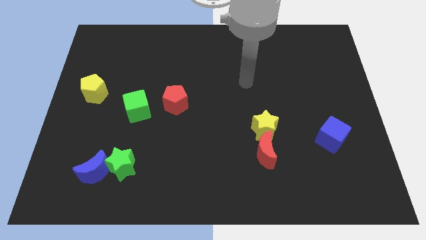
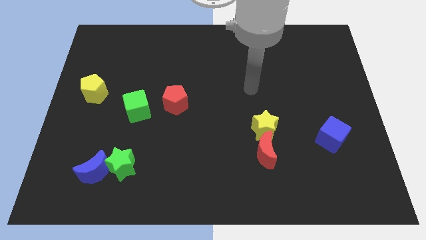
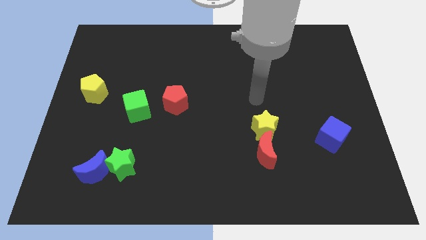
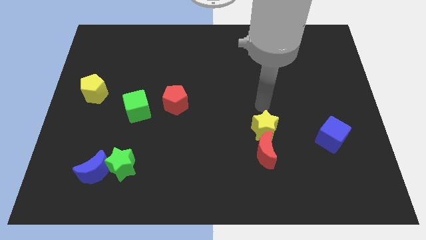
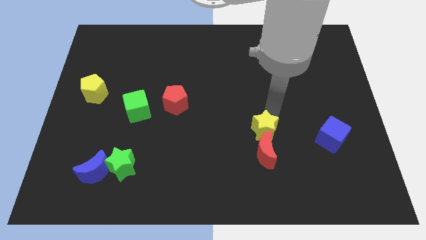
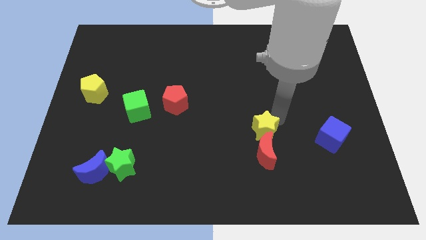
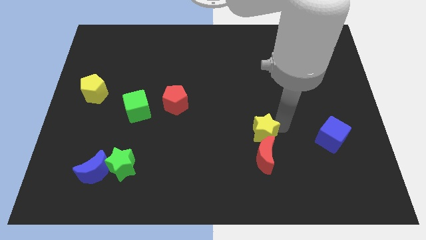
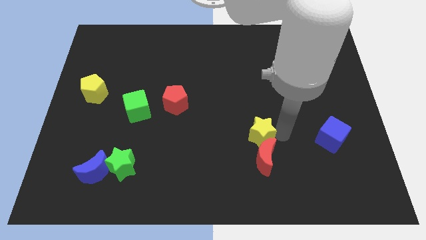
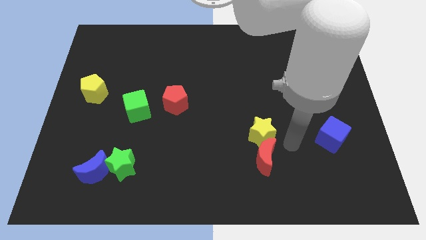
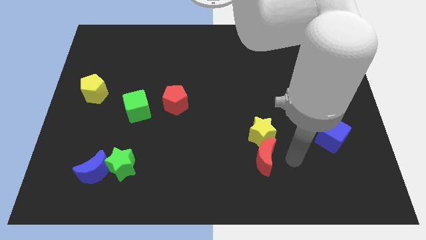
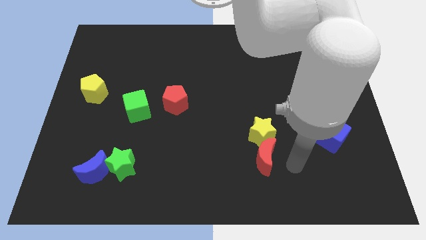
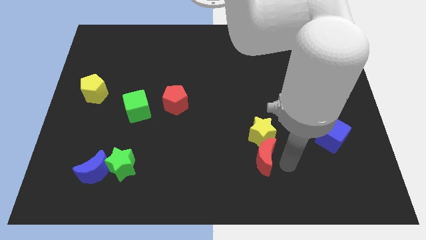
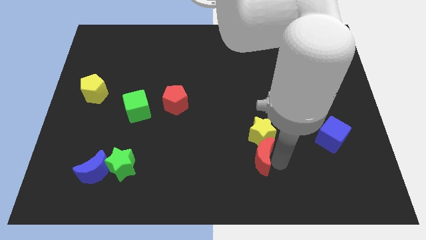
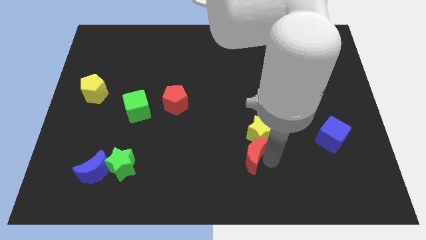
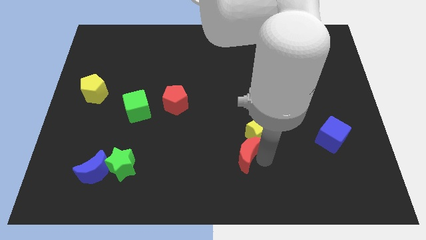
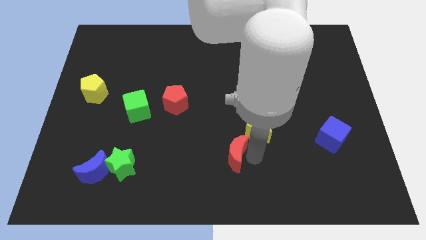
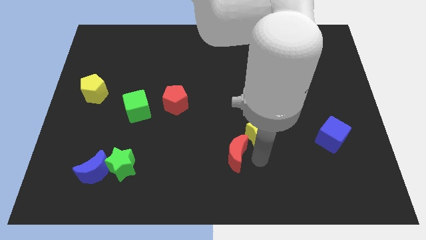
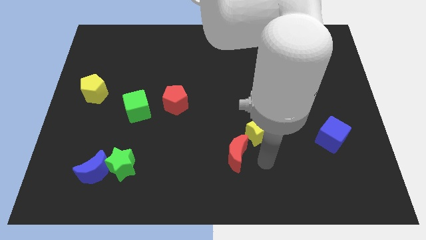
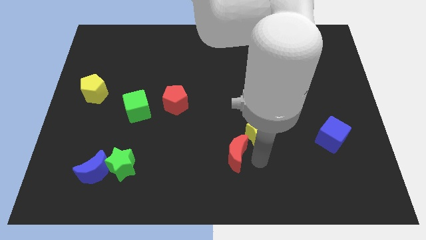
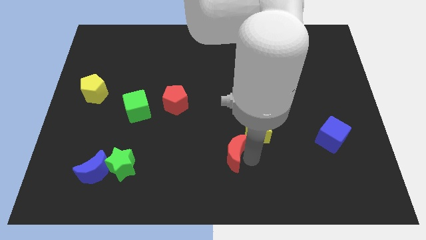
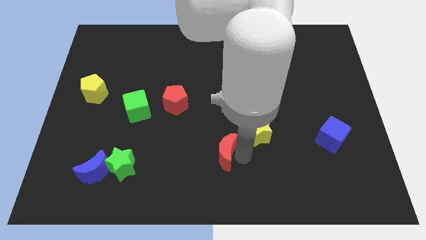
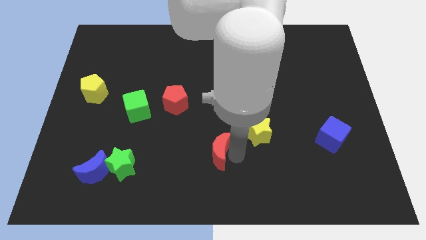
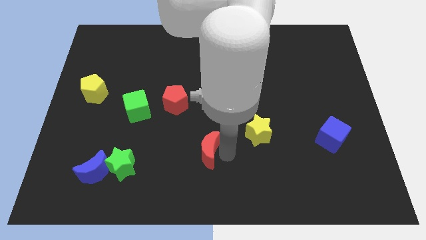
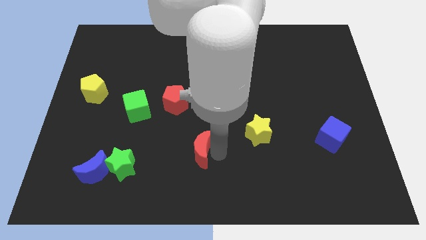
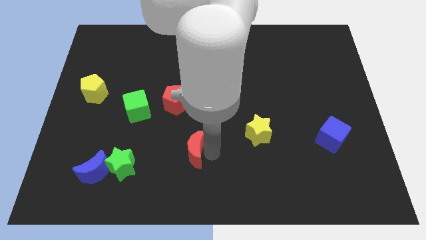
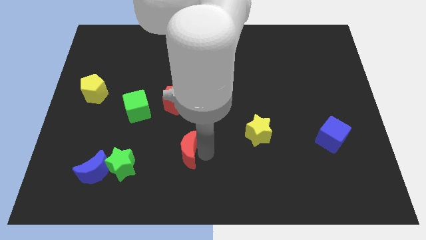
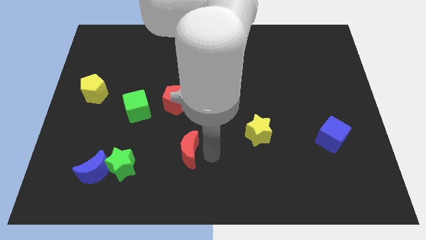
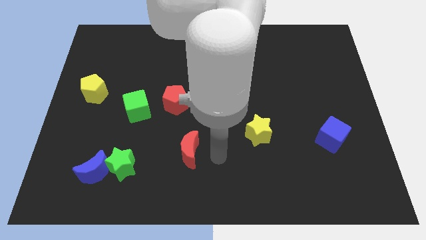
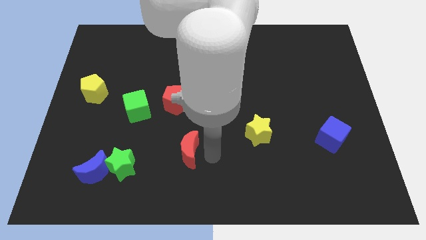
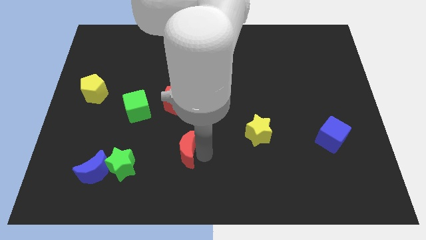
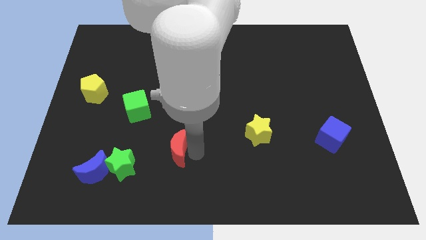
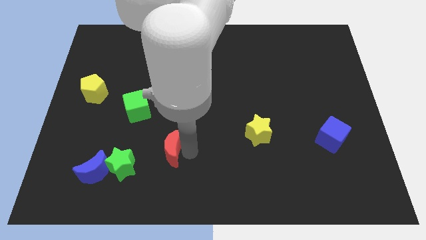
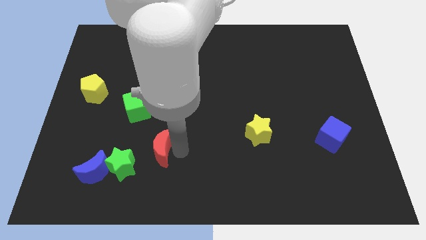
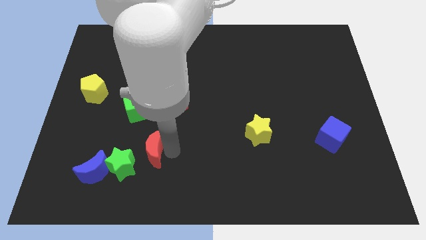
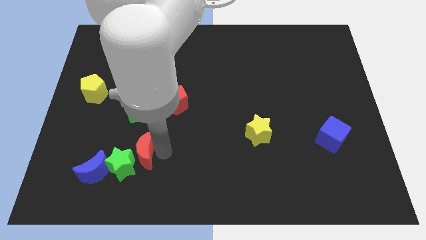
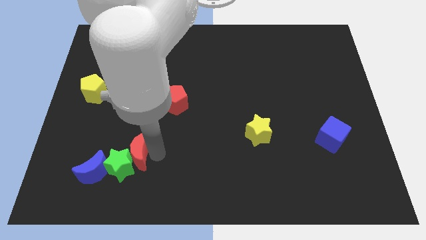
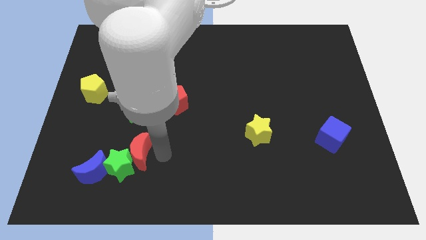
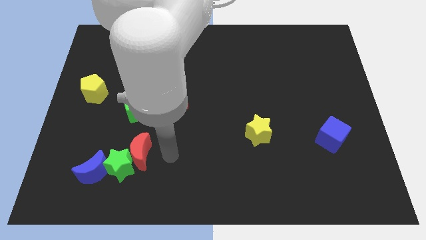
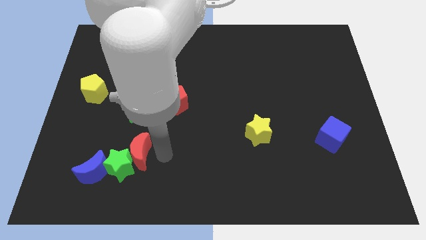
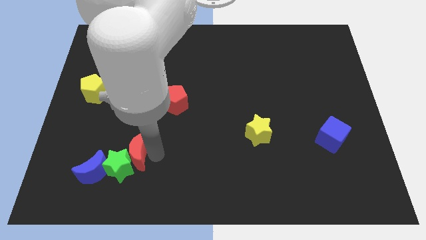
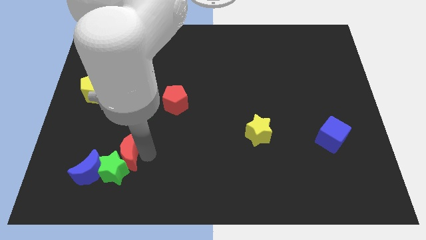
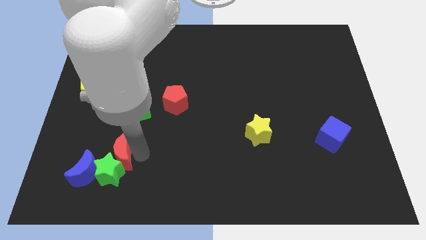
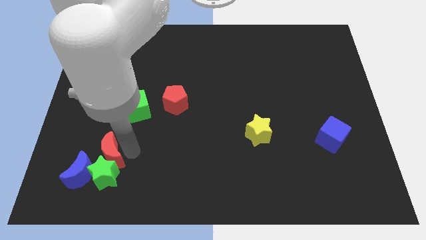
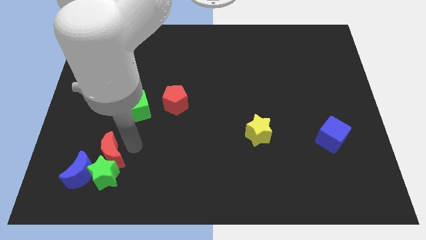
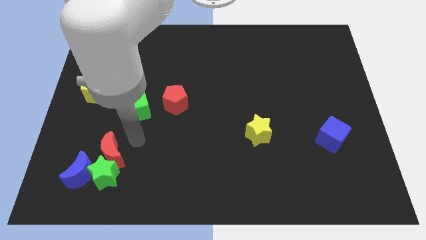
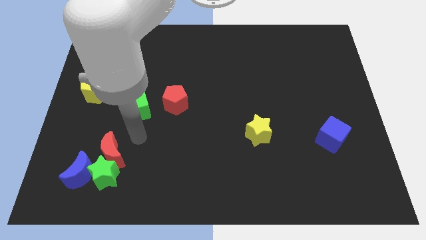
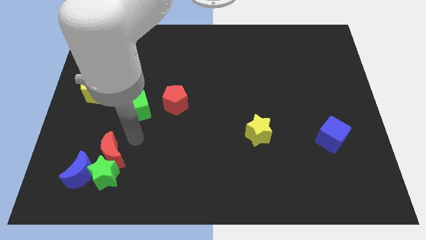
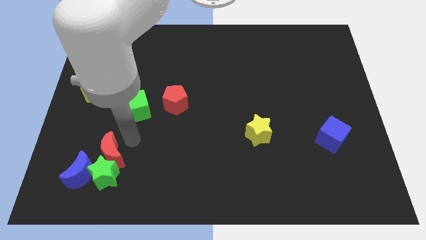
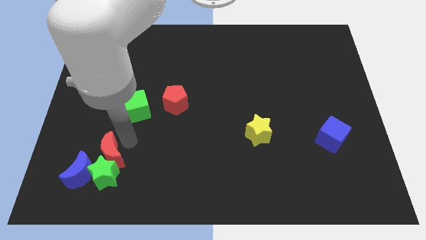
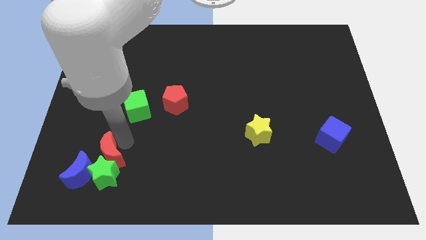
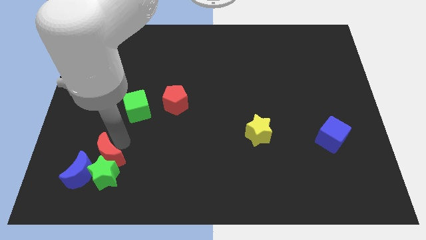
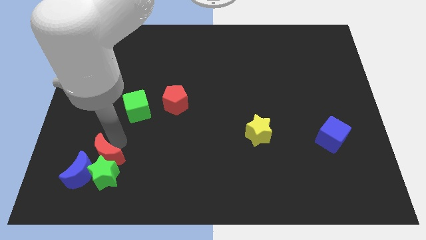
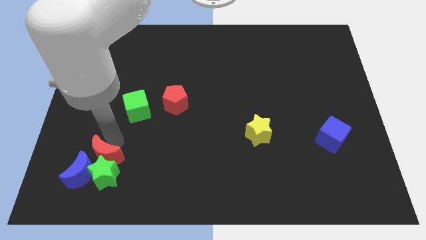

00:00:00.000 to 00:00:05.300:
move the red moon to the blue moon

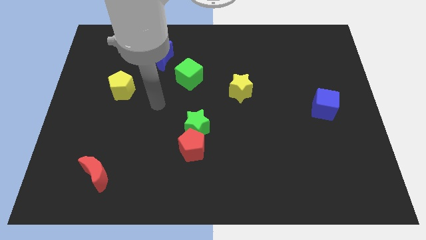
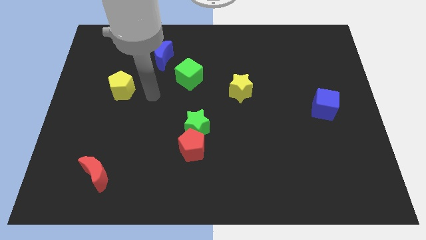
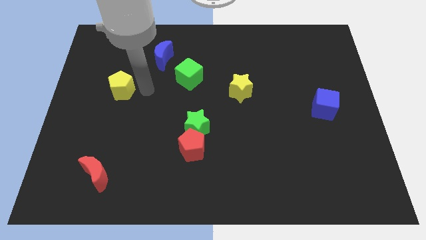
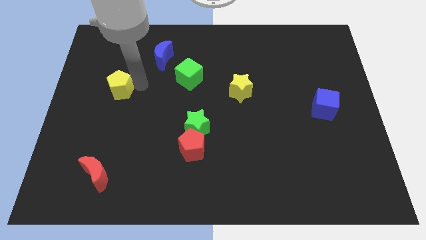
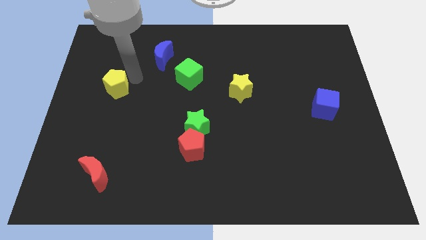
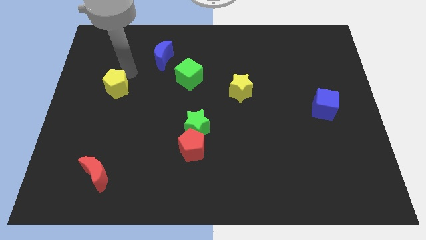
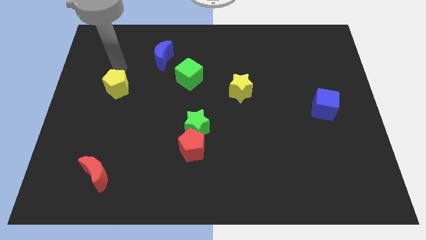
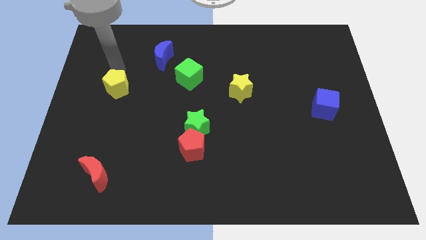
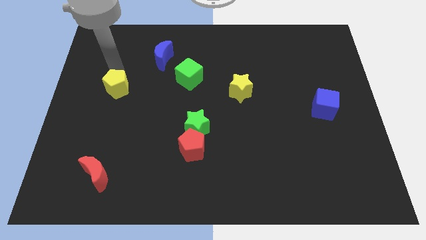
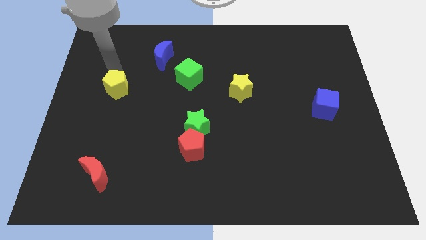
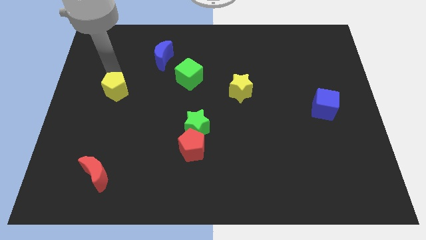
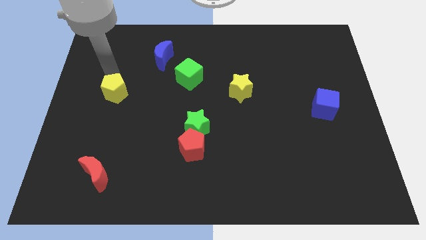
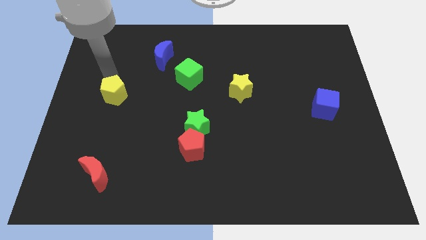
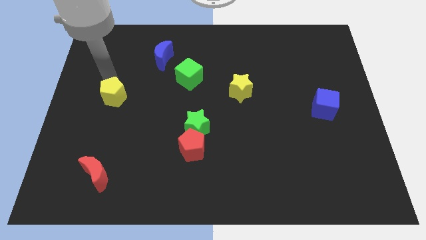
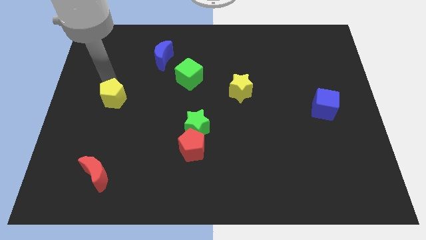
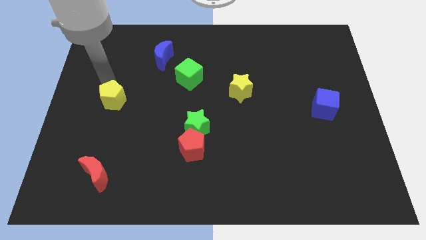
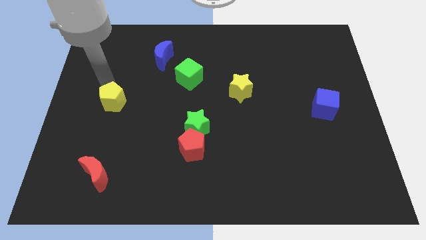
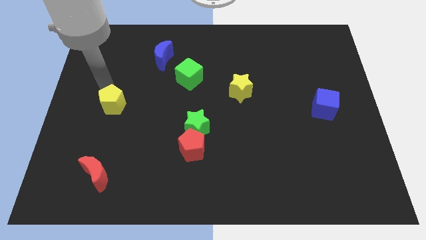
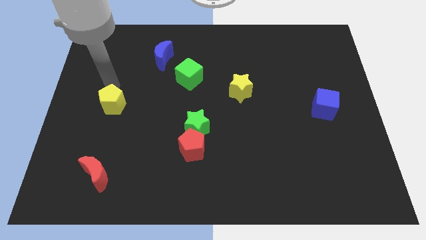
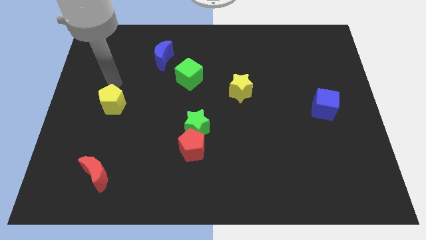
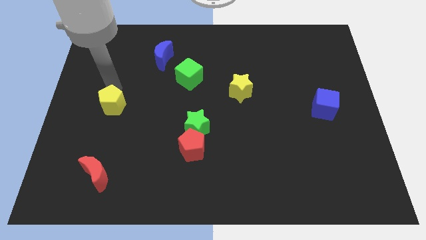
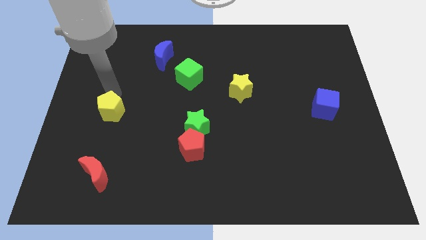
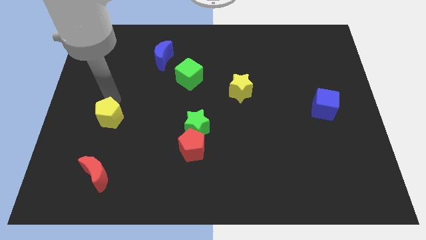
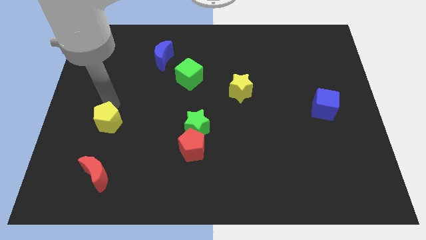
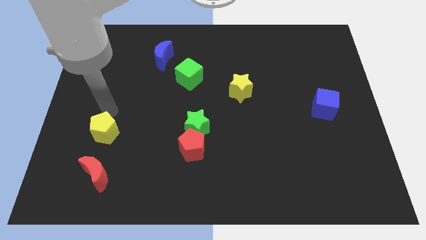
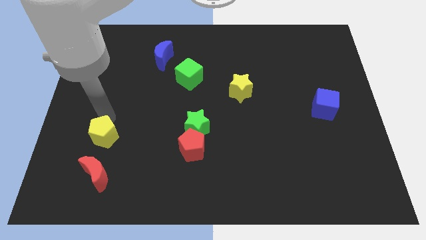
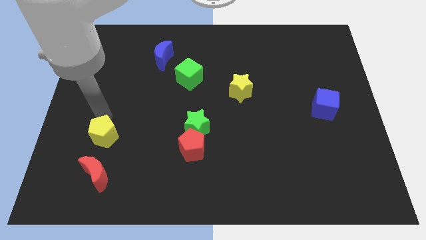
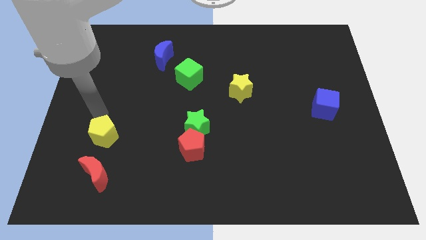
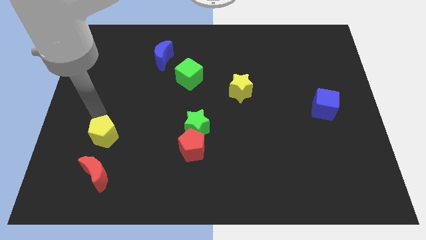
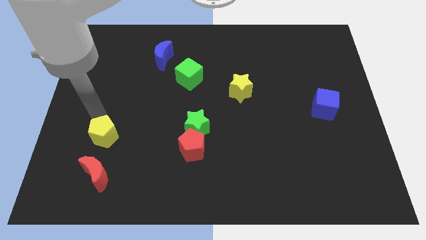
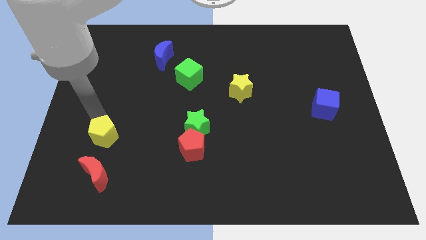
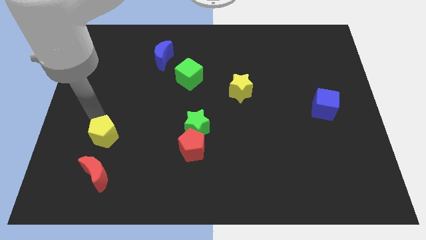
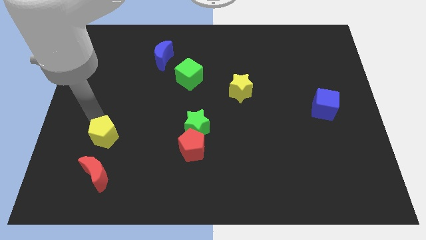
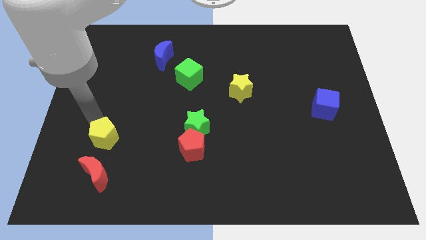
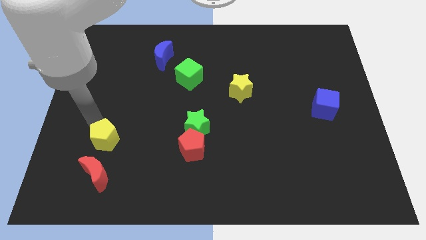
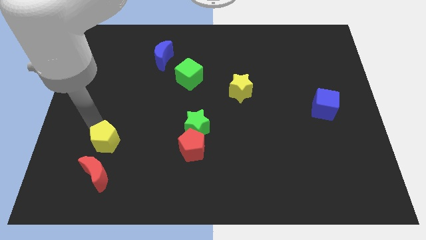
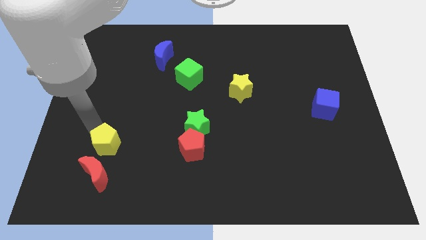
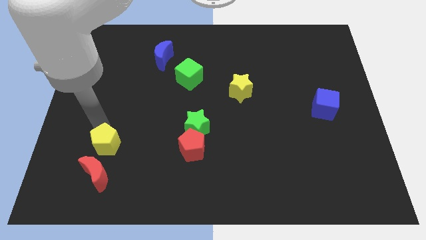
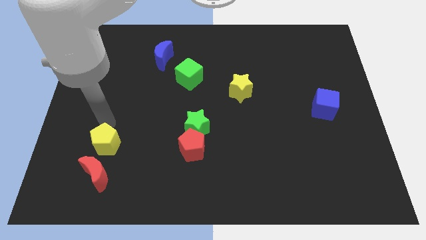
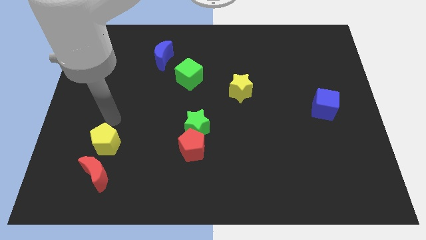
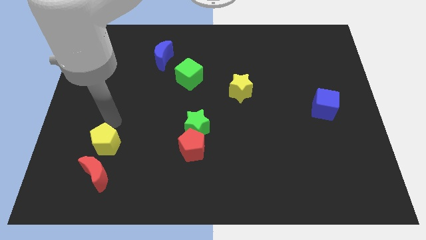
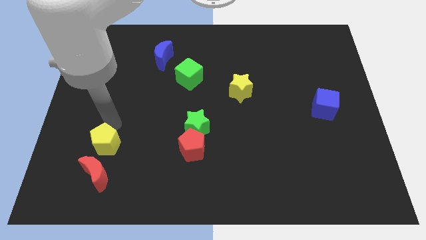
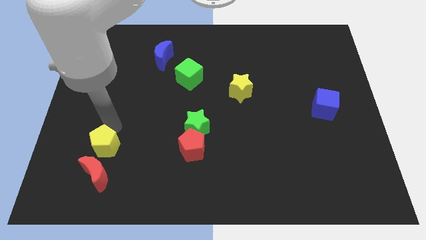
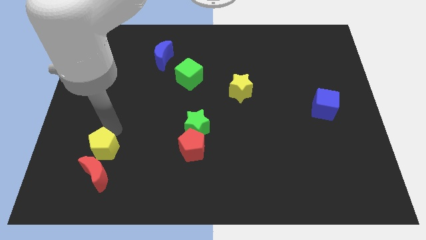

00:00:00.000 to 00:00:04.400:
move the yellow pentagon to the red moon
